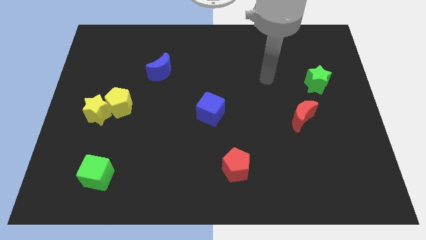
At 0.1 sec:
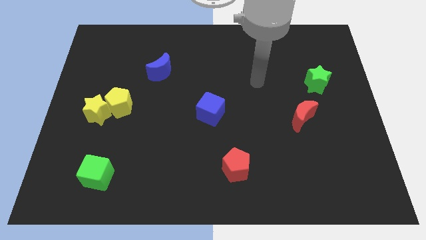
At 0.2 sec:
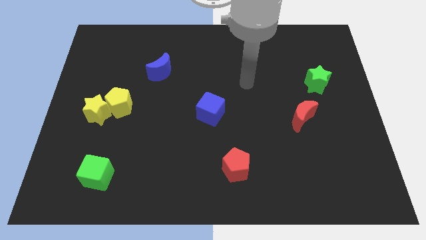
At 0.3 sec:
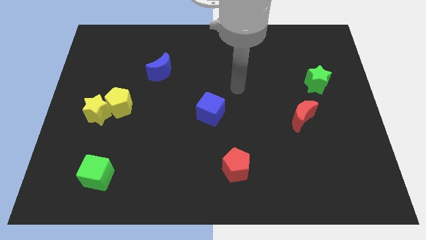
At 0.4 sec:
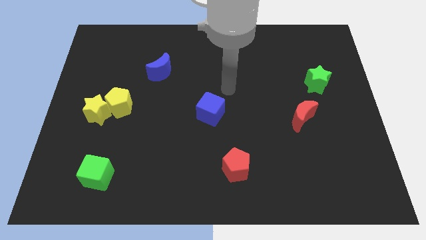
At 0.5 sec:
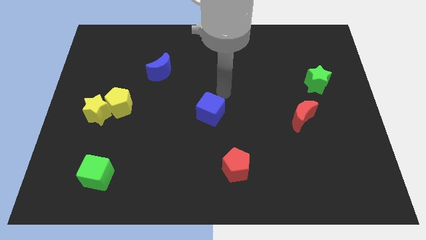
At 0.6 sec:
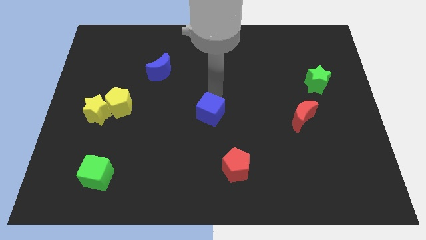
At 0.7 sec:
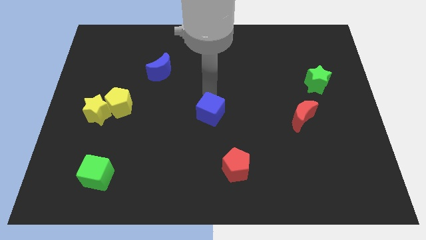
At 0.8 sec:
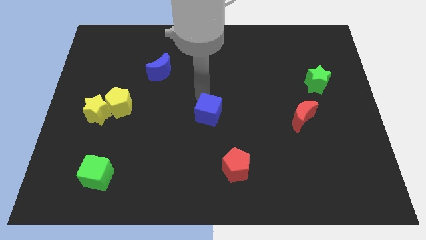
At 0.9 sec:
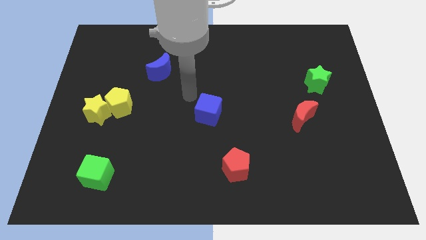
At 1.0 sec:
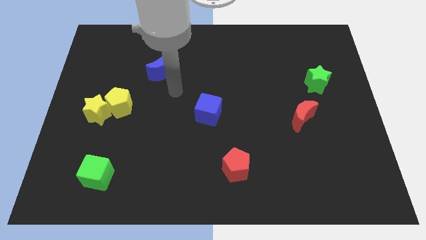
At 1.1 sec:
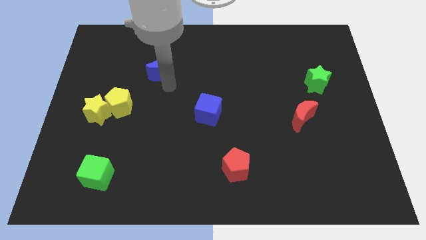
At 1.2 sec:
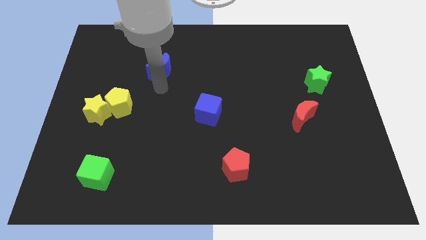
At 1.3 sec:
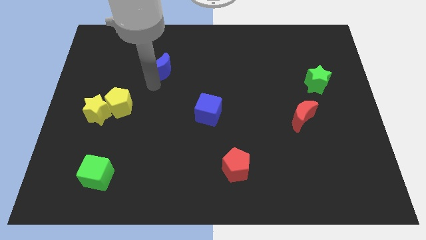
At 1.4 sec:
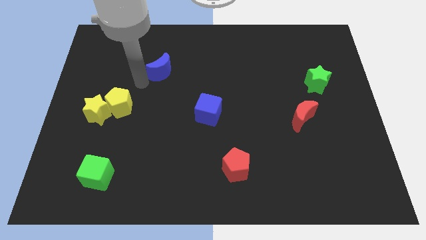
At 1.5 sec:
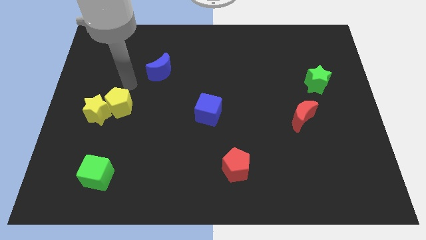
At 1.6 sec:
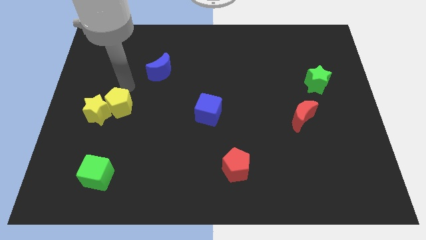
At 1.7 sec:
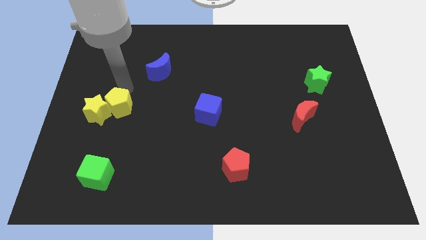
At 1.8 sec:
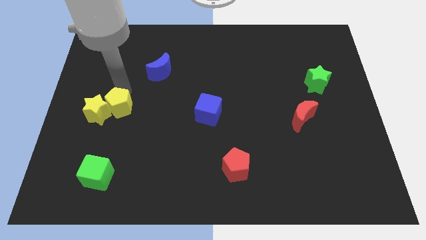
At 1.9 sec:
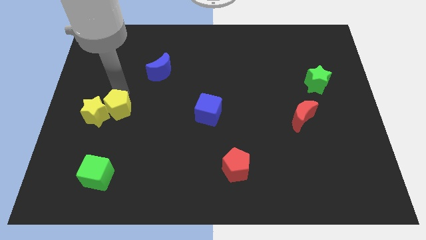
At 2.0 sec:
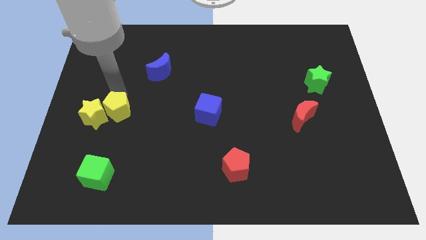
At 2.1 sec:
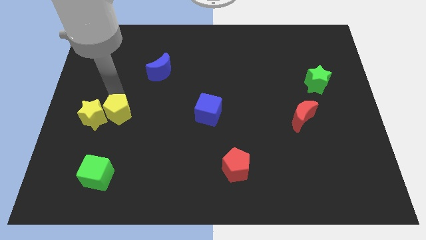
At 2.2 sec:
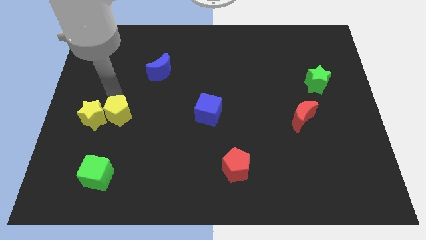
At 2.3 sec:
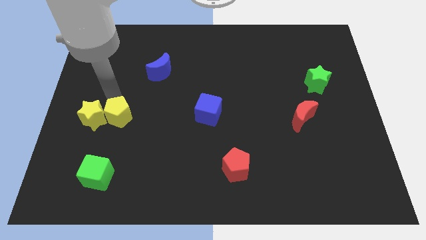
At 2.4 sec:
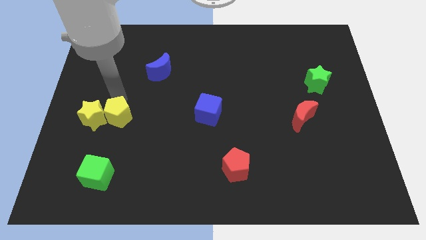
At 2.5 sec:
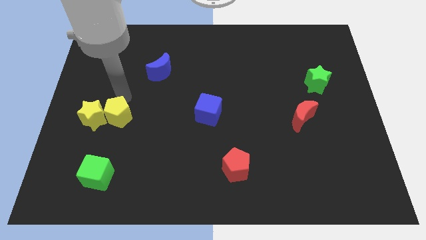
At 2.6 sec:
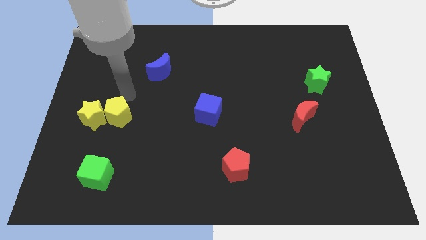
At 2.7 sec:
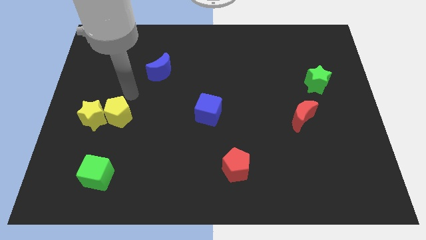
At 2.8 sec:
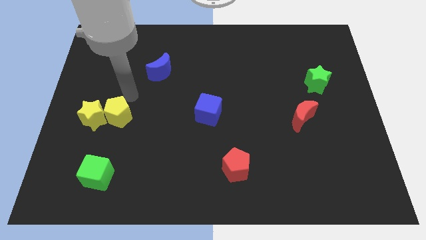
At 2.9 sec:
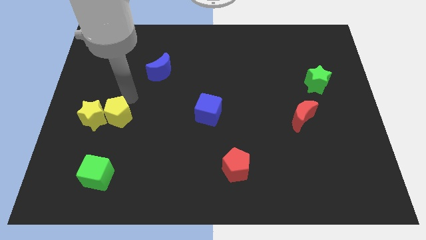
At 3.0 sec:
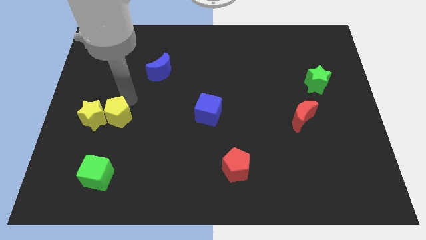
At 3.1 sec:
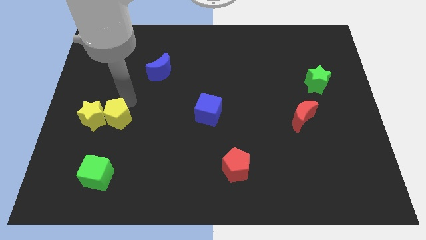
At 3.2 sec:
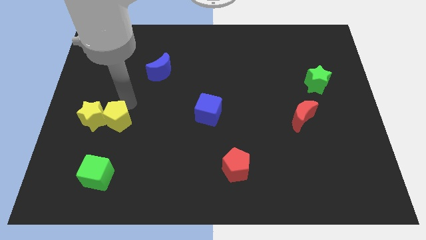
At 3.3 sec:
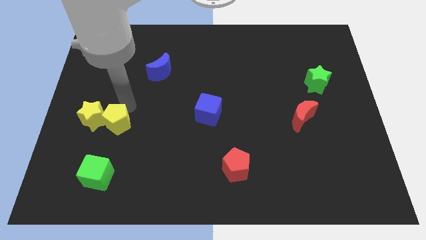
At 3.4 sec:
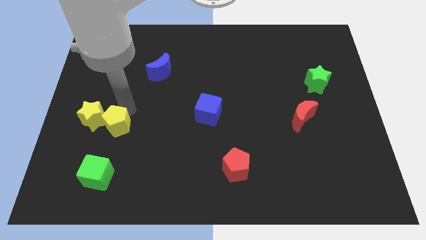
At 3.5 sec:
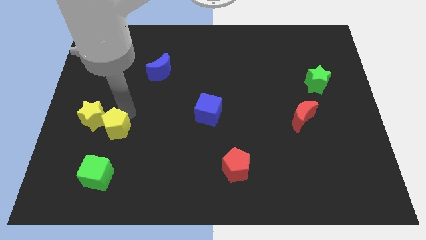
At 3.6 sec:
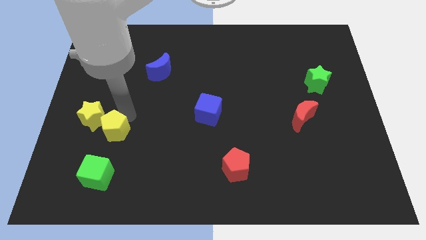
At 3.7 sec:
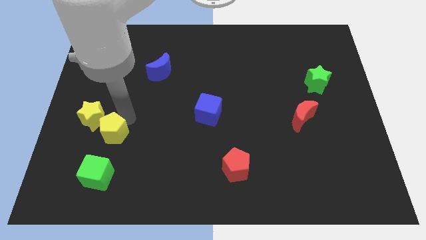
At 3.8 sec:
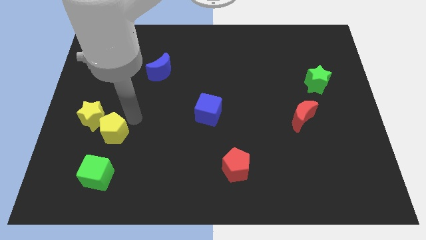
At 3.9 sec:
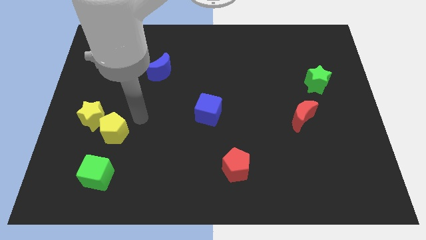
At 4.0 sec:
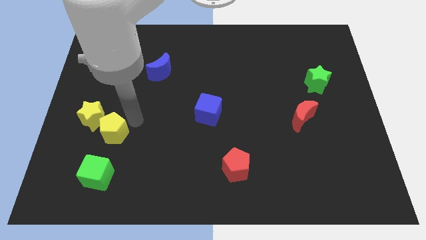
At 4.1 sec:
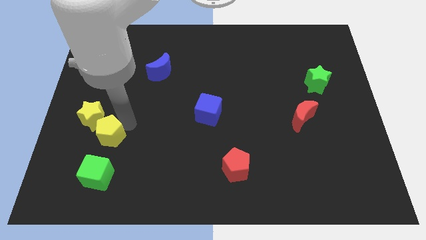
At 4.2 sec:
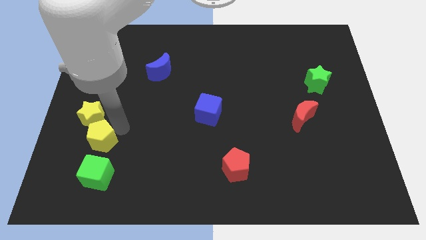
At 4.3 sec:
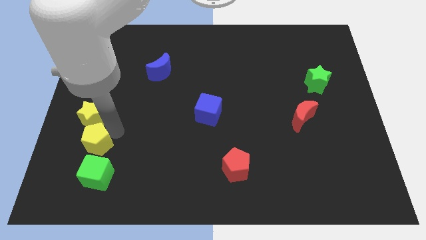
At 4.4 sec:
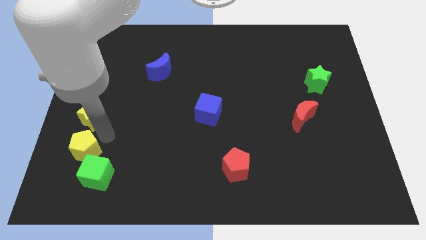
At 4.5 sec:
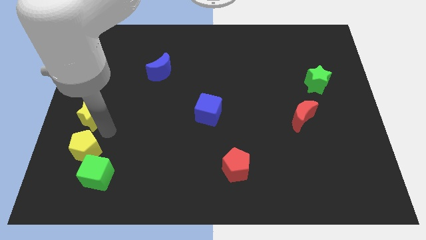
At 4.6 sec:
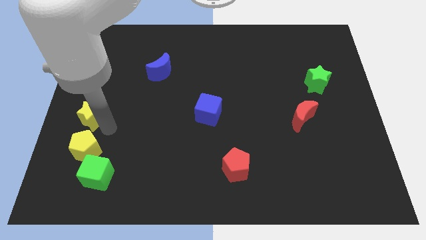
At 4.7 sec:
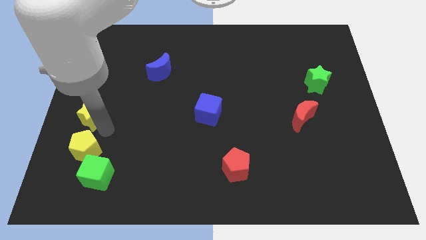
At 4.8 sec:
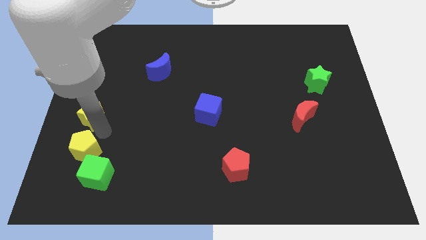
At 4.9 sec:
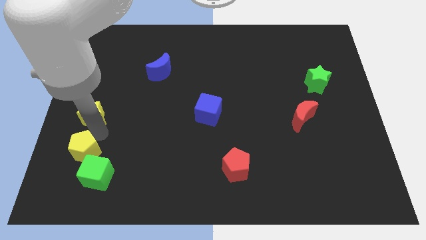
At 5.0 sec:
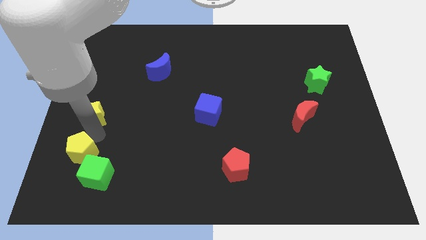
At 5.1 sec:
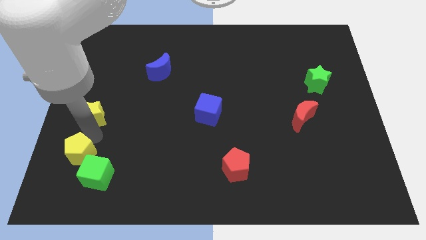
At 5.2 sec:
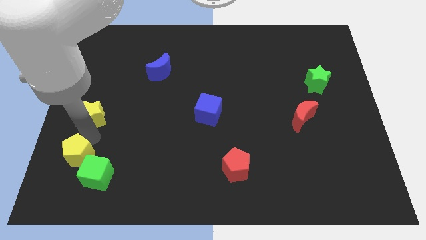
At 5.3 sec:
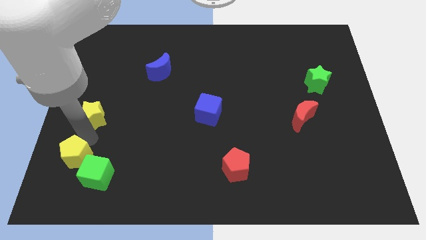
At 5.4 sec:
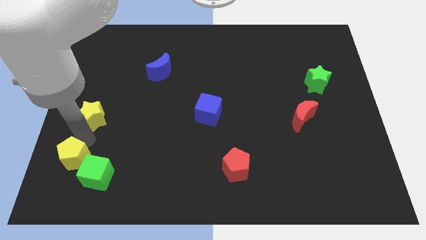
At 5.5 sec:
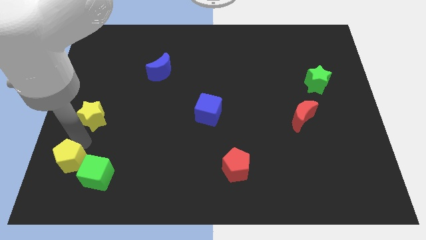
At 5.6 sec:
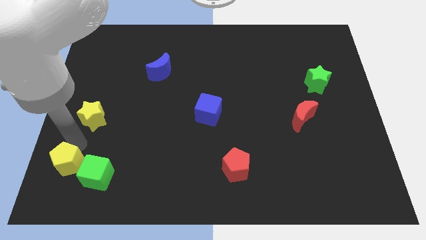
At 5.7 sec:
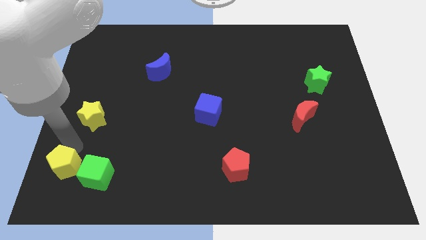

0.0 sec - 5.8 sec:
move the yellow pentagon to the bottom left of the board

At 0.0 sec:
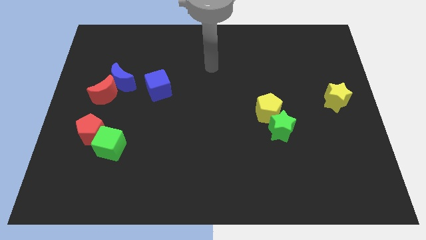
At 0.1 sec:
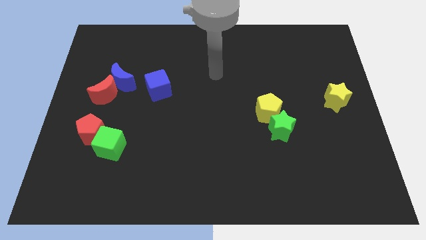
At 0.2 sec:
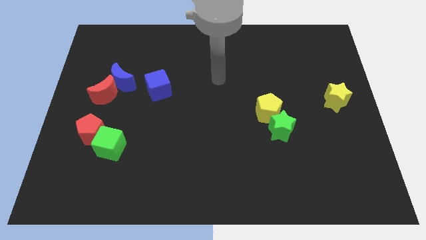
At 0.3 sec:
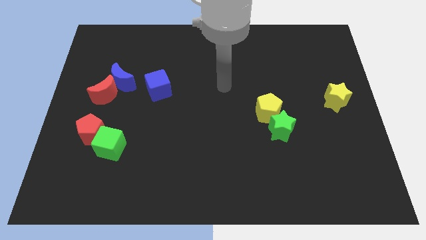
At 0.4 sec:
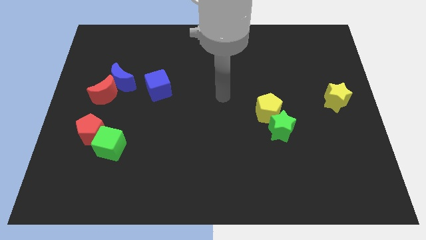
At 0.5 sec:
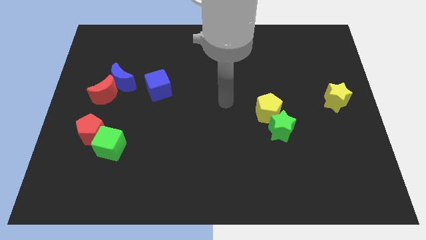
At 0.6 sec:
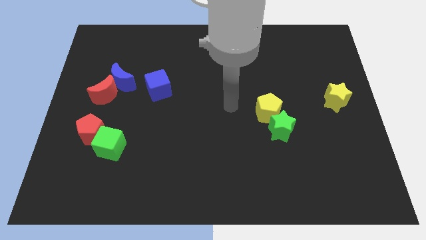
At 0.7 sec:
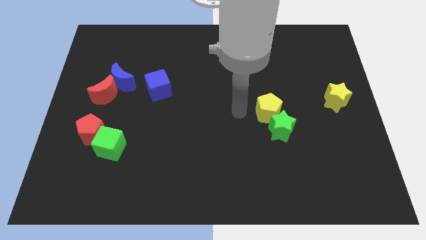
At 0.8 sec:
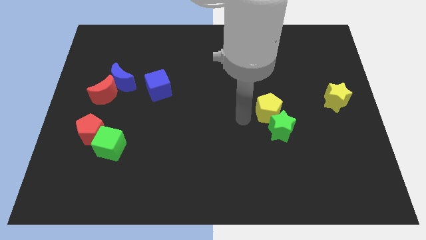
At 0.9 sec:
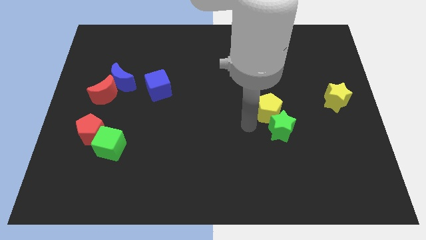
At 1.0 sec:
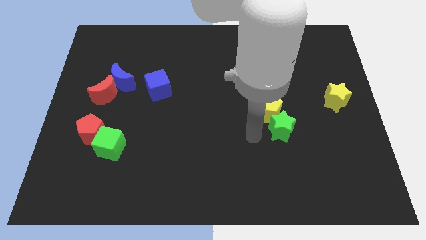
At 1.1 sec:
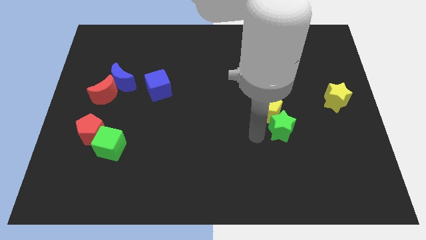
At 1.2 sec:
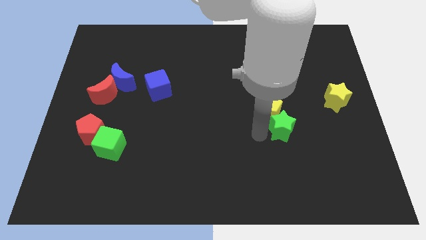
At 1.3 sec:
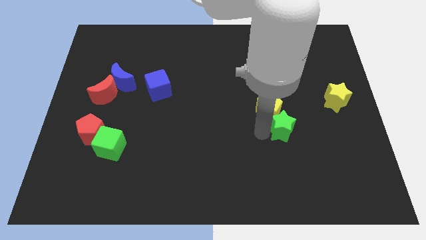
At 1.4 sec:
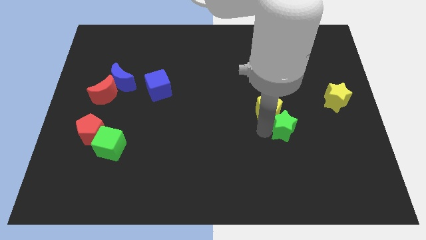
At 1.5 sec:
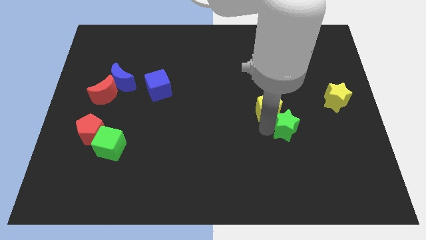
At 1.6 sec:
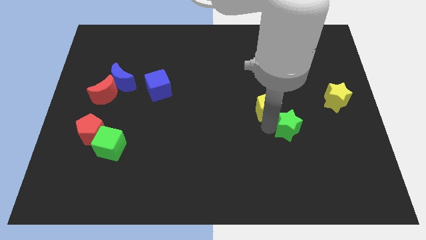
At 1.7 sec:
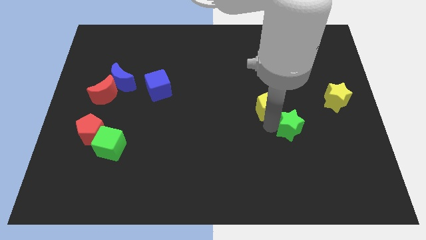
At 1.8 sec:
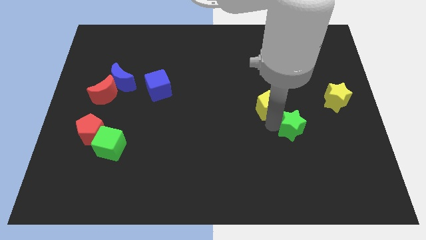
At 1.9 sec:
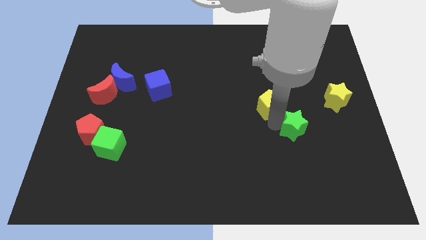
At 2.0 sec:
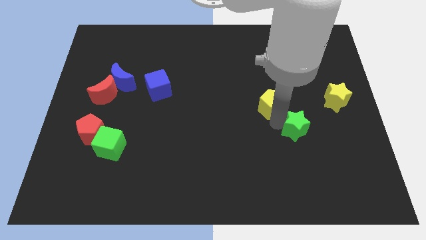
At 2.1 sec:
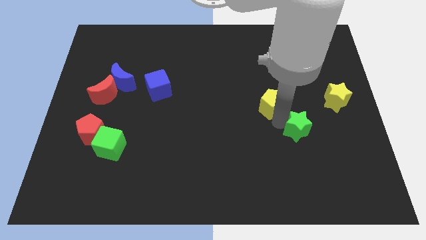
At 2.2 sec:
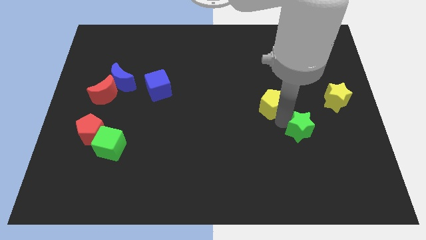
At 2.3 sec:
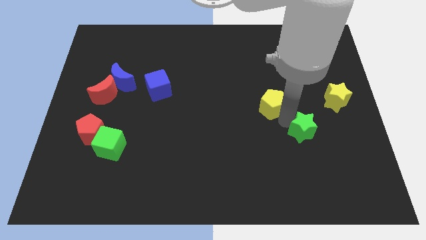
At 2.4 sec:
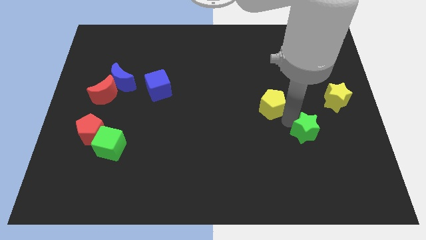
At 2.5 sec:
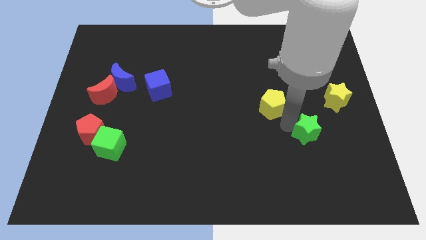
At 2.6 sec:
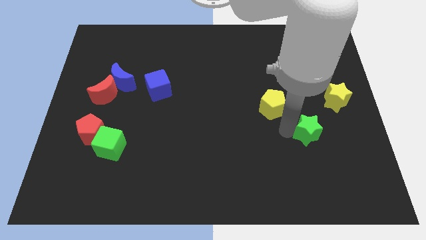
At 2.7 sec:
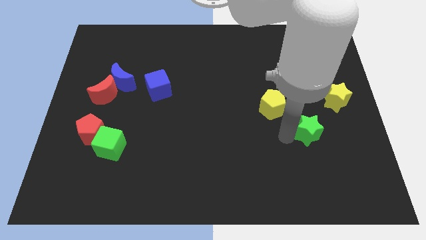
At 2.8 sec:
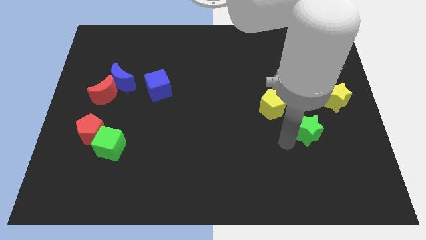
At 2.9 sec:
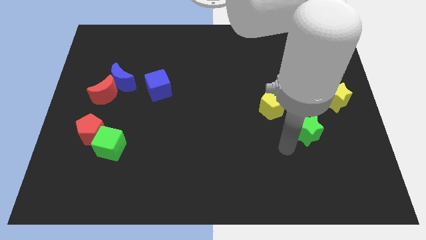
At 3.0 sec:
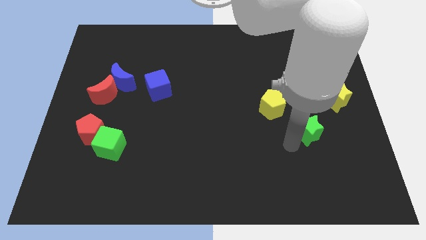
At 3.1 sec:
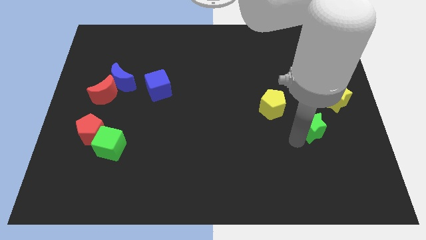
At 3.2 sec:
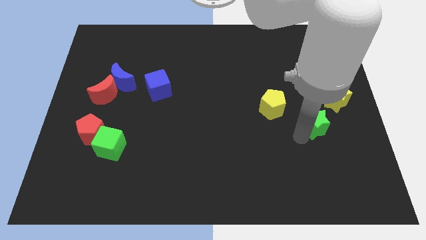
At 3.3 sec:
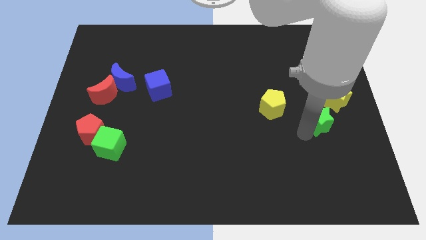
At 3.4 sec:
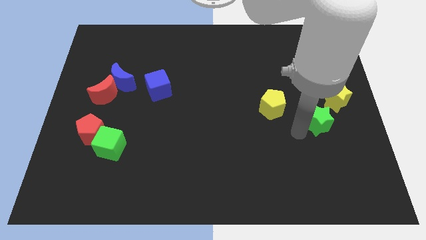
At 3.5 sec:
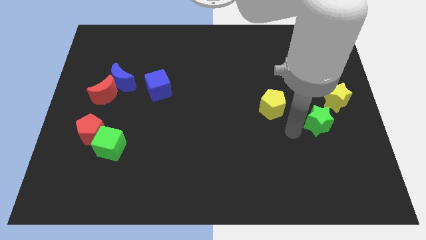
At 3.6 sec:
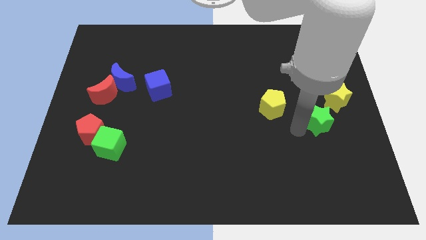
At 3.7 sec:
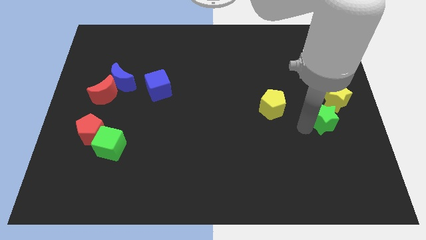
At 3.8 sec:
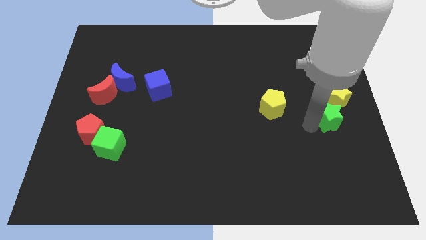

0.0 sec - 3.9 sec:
move the green star to the center right
